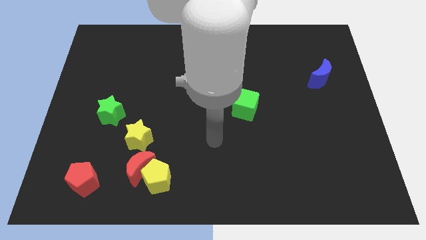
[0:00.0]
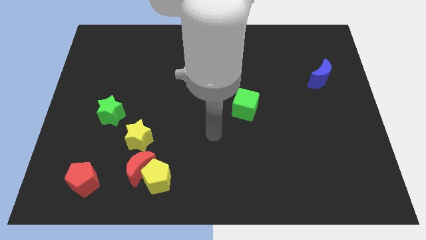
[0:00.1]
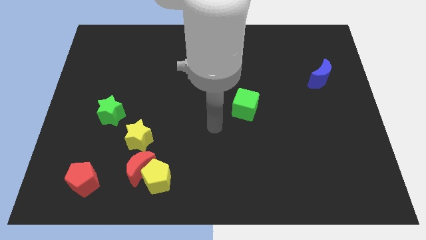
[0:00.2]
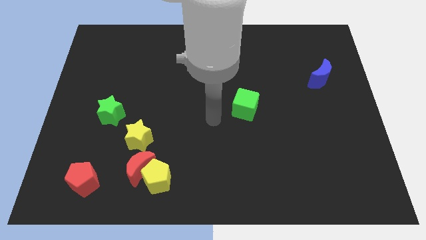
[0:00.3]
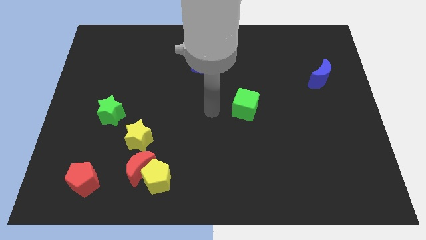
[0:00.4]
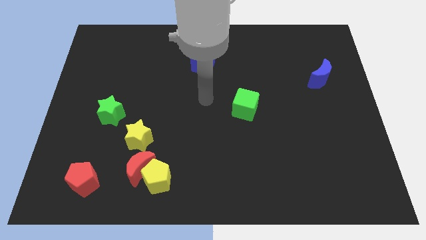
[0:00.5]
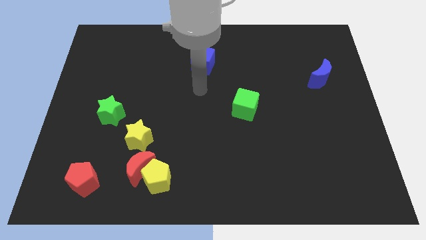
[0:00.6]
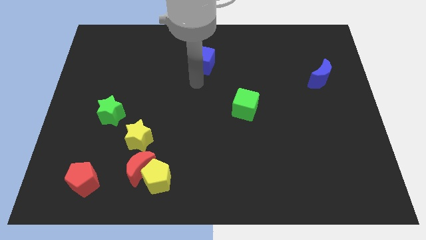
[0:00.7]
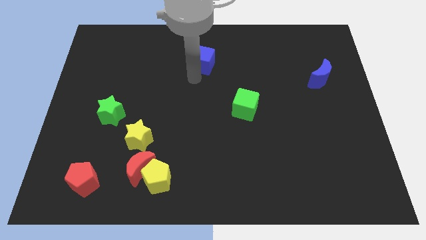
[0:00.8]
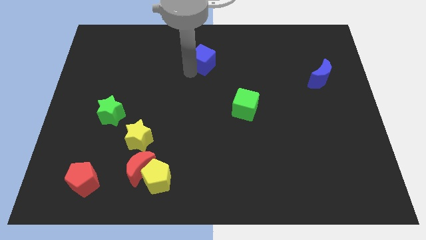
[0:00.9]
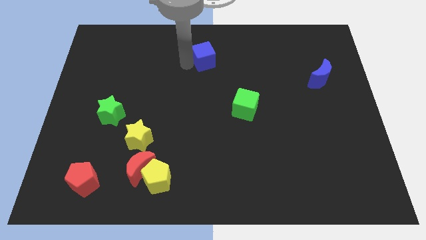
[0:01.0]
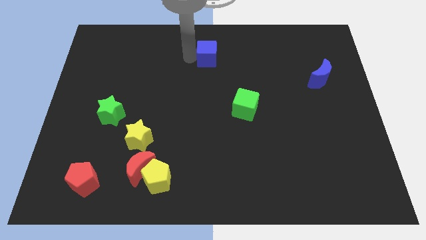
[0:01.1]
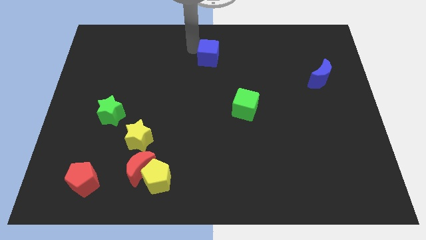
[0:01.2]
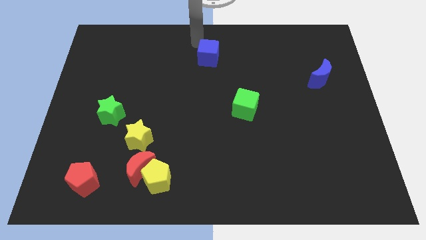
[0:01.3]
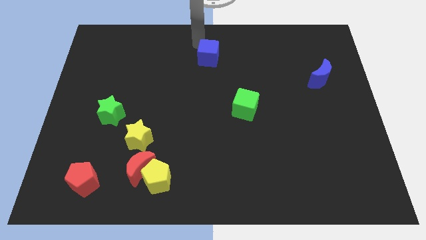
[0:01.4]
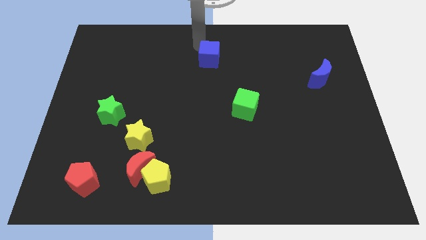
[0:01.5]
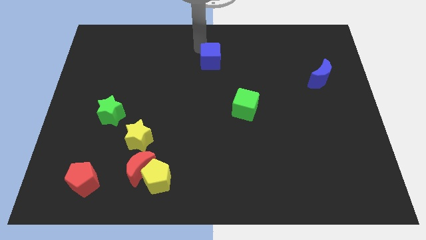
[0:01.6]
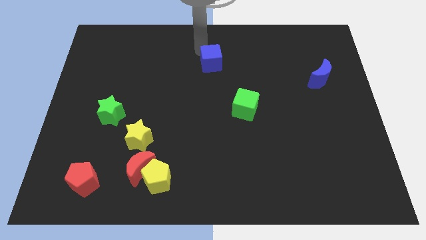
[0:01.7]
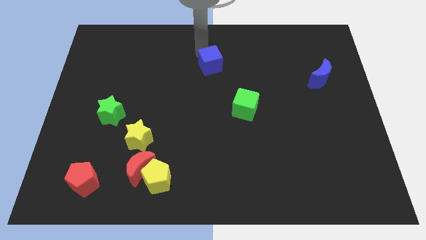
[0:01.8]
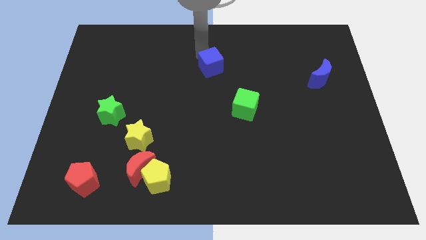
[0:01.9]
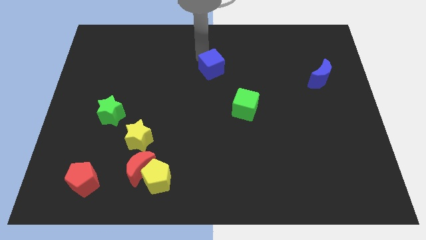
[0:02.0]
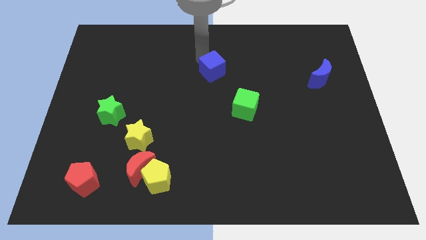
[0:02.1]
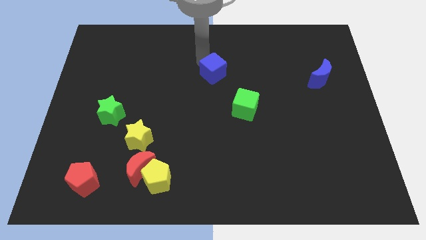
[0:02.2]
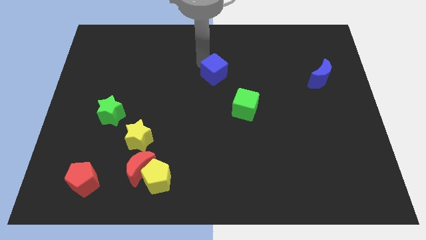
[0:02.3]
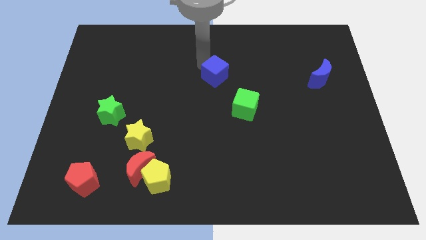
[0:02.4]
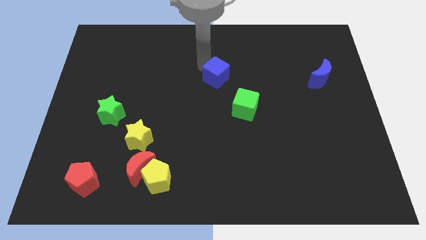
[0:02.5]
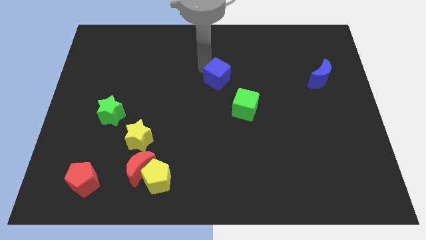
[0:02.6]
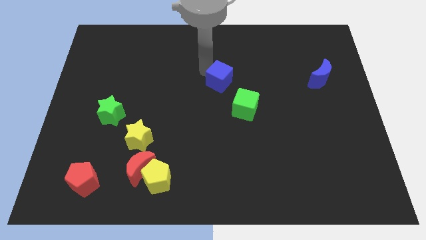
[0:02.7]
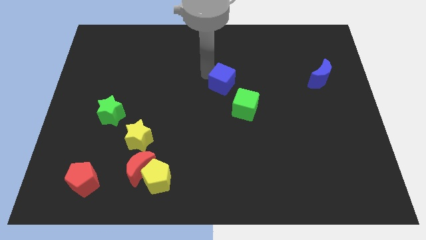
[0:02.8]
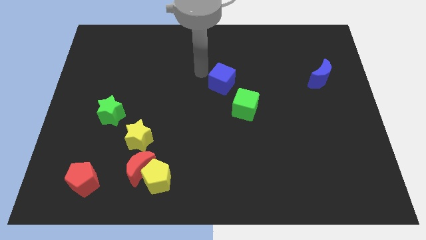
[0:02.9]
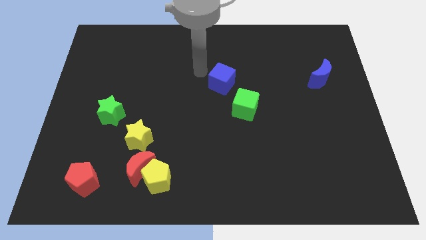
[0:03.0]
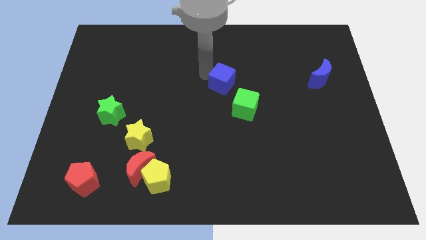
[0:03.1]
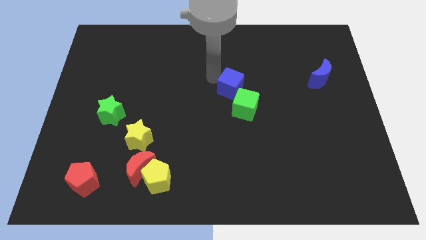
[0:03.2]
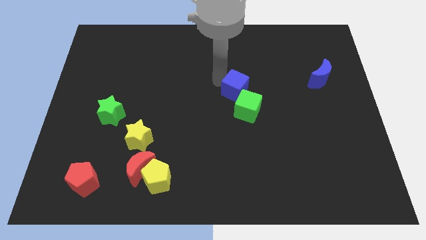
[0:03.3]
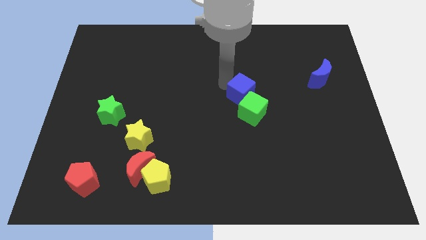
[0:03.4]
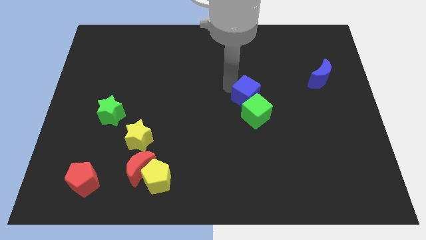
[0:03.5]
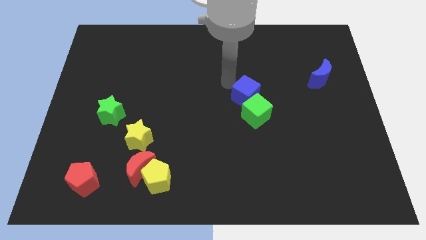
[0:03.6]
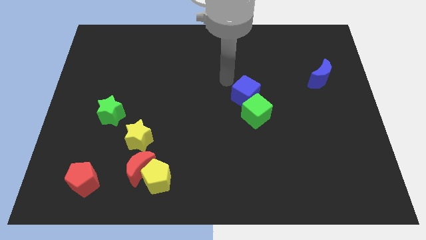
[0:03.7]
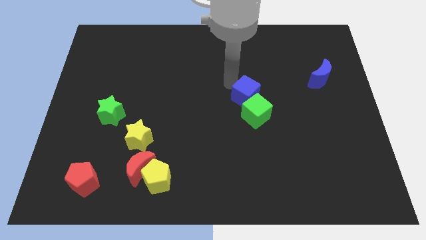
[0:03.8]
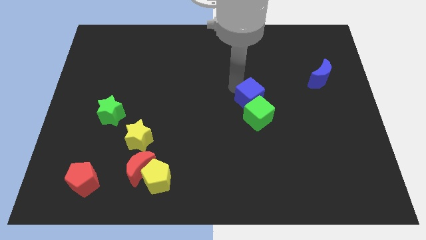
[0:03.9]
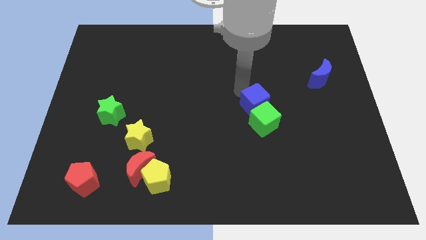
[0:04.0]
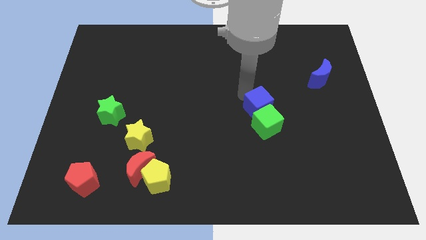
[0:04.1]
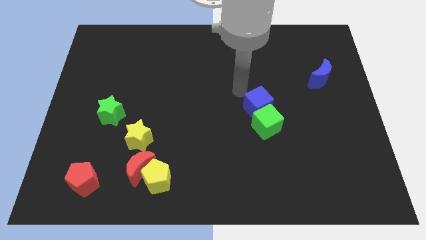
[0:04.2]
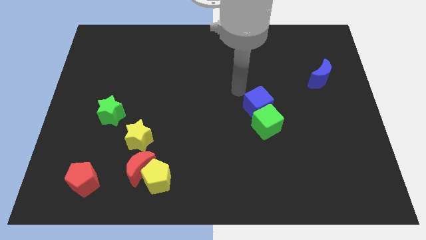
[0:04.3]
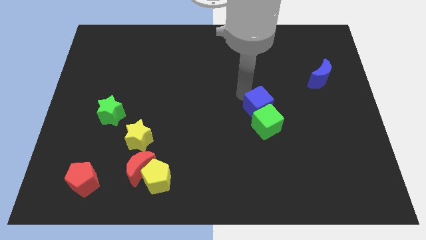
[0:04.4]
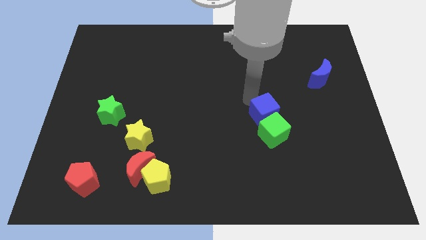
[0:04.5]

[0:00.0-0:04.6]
move the blue cube downwards and then right

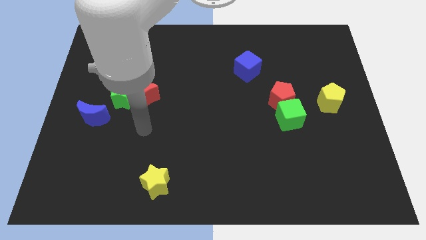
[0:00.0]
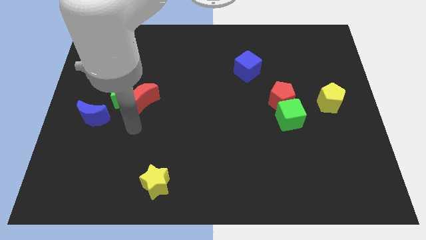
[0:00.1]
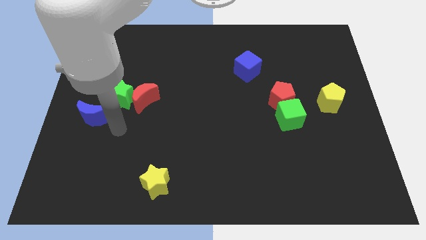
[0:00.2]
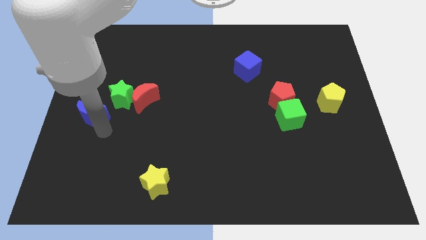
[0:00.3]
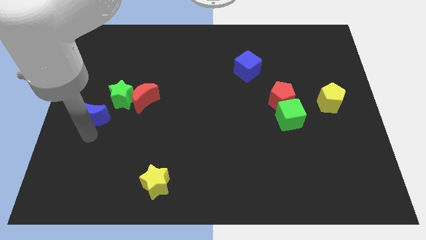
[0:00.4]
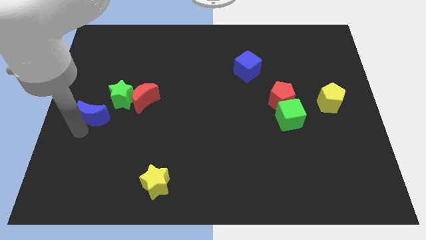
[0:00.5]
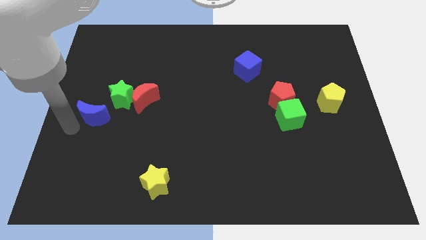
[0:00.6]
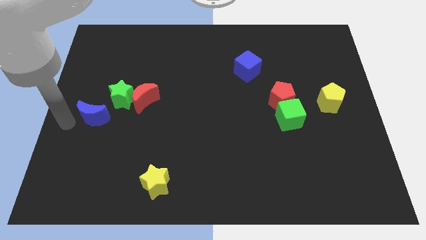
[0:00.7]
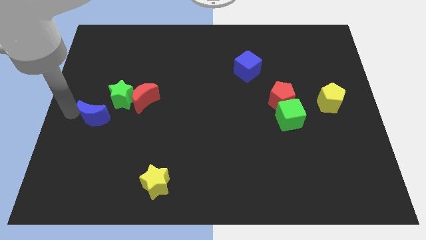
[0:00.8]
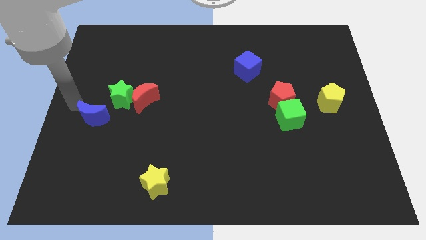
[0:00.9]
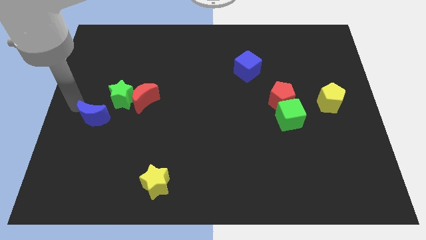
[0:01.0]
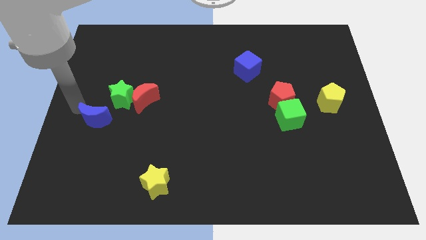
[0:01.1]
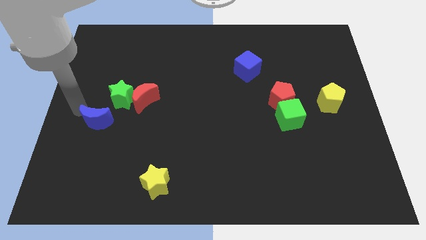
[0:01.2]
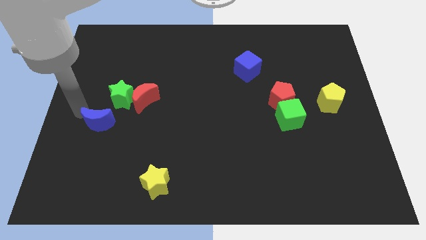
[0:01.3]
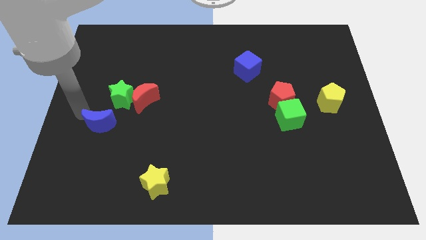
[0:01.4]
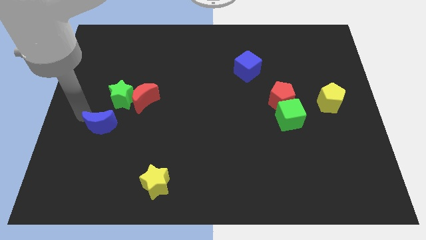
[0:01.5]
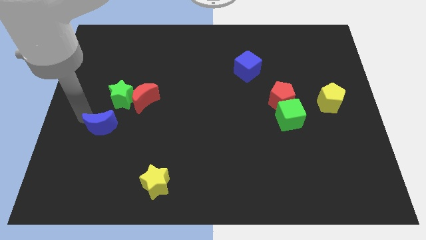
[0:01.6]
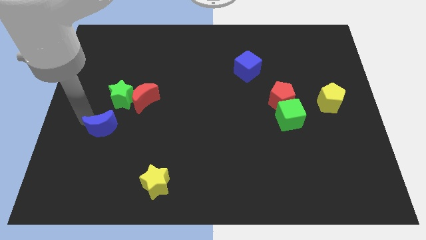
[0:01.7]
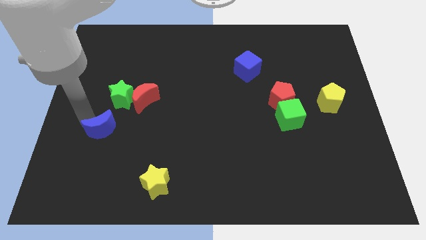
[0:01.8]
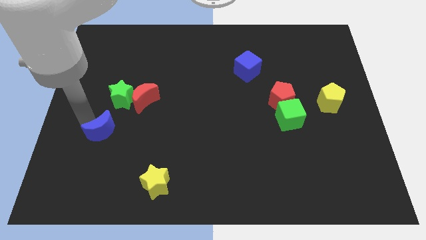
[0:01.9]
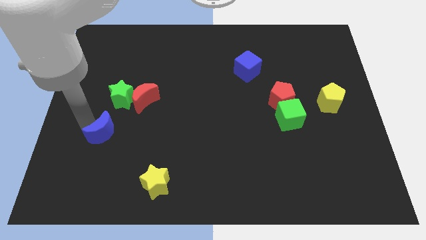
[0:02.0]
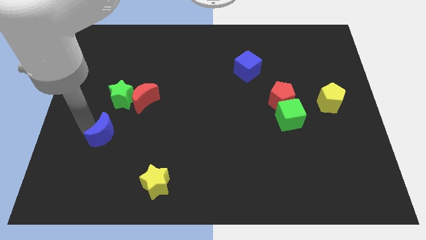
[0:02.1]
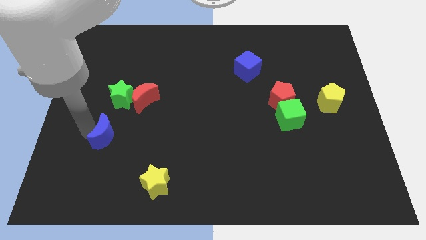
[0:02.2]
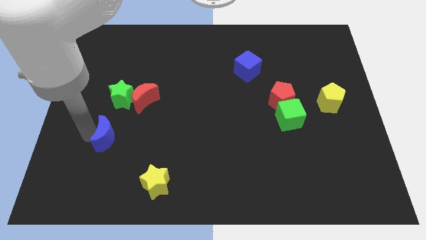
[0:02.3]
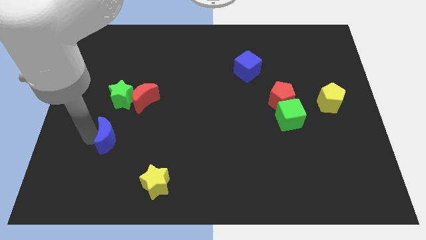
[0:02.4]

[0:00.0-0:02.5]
slide the blue moon down and to the right diagonally a bit

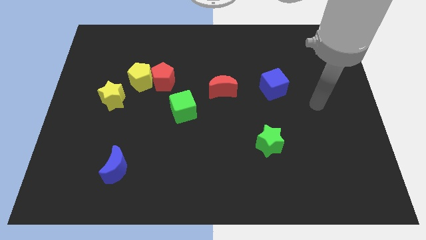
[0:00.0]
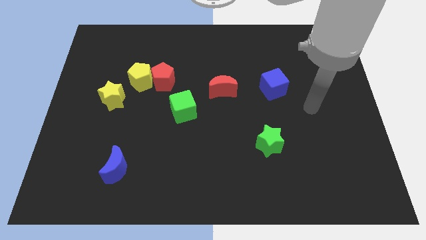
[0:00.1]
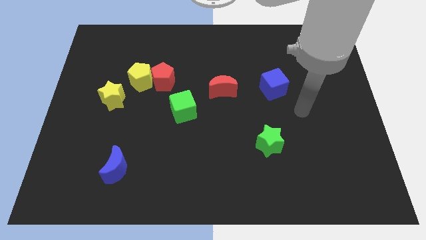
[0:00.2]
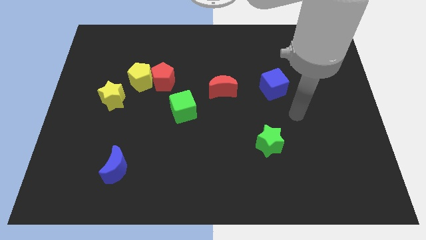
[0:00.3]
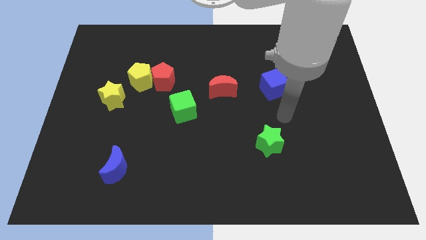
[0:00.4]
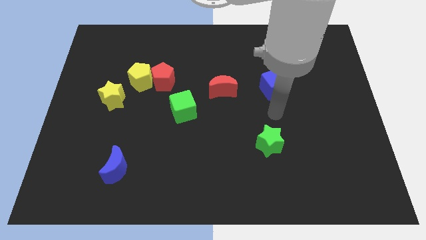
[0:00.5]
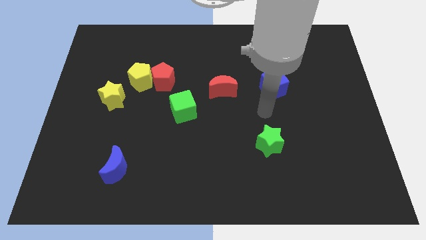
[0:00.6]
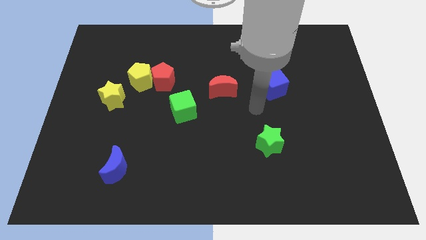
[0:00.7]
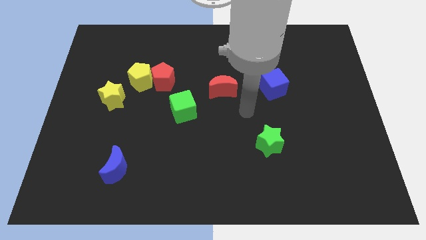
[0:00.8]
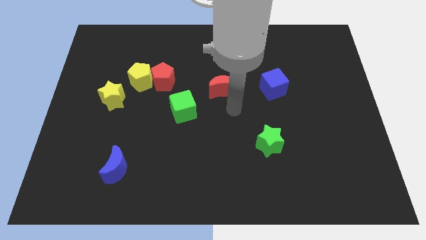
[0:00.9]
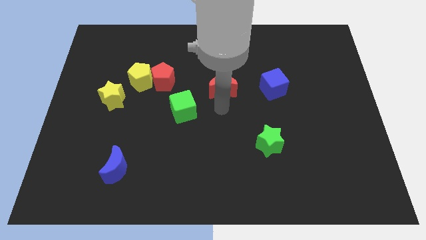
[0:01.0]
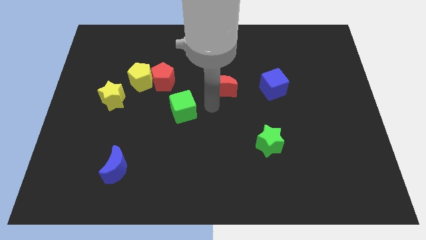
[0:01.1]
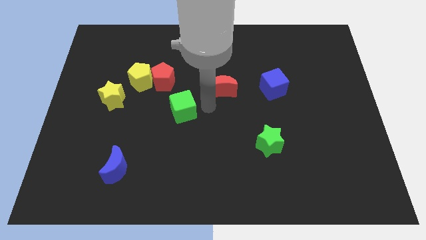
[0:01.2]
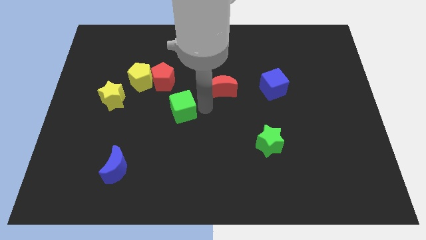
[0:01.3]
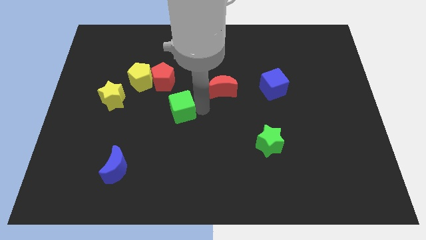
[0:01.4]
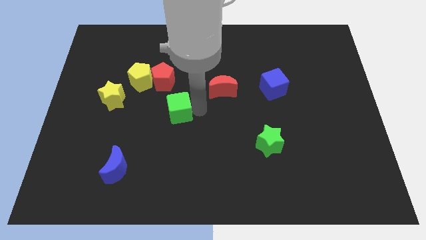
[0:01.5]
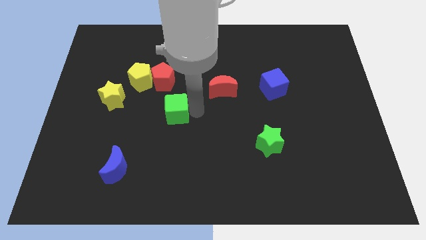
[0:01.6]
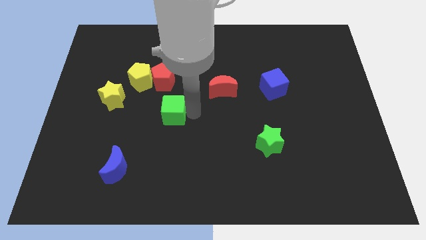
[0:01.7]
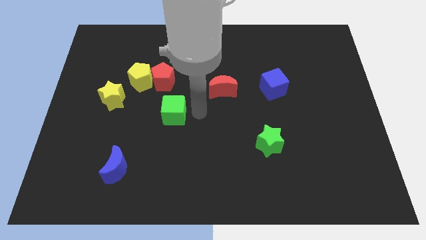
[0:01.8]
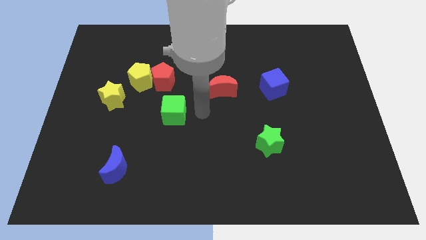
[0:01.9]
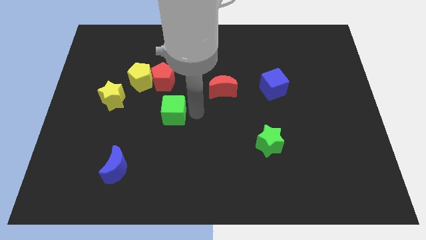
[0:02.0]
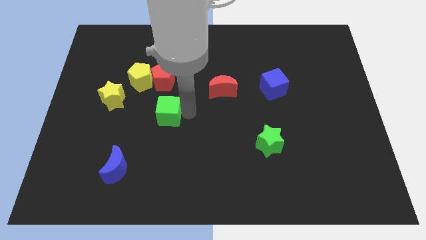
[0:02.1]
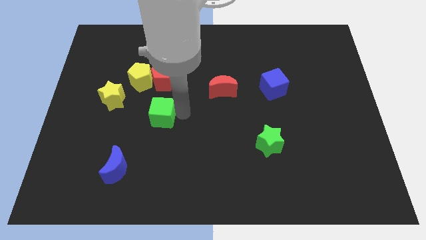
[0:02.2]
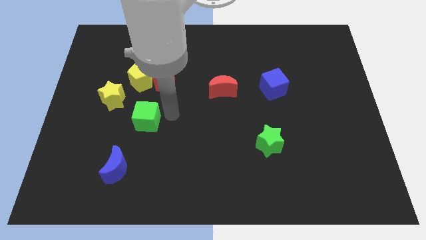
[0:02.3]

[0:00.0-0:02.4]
slide the green cube left a bit
